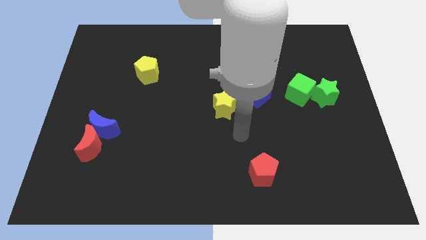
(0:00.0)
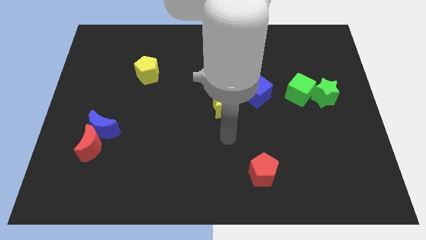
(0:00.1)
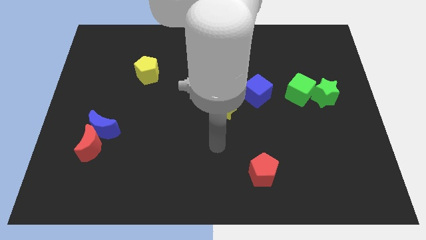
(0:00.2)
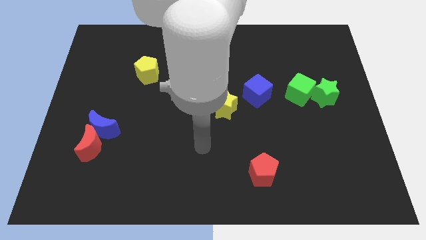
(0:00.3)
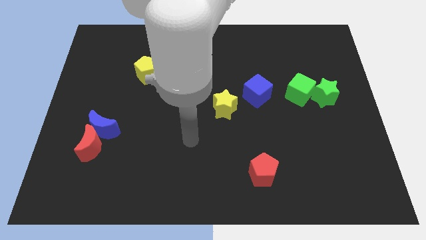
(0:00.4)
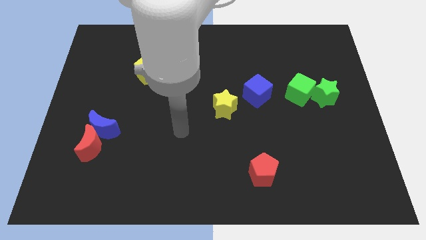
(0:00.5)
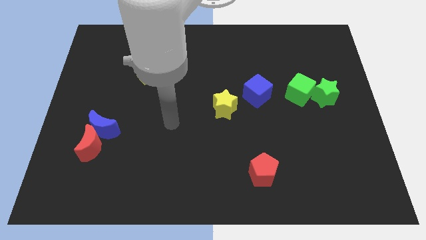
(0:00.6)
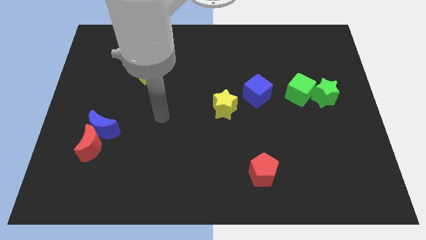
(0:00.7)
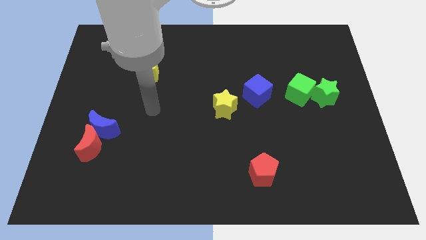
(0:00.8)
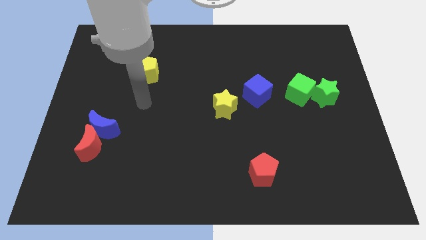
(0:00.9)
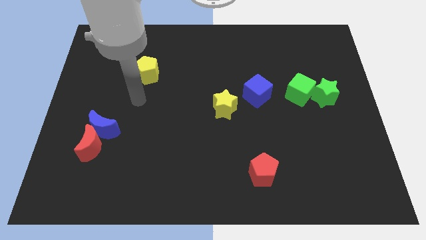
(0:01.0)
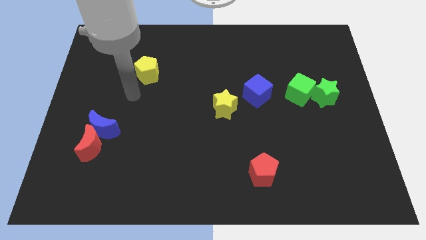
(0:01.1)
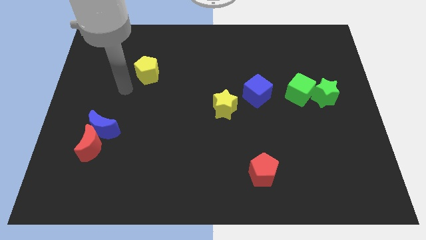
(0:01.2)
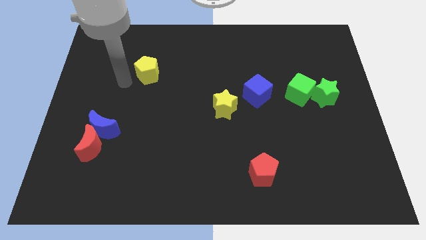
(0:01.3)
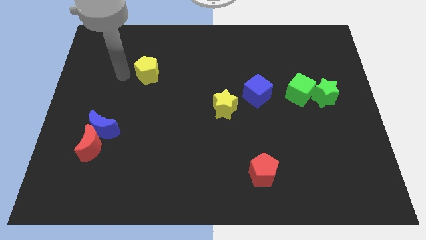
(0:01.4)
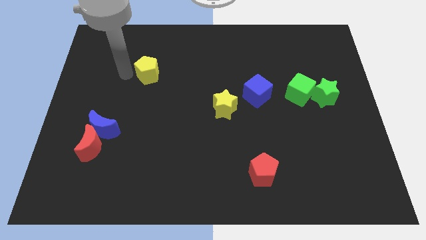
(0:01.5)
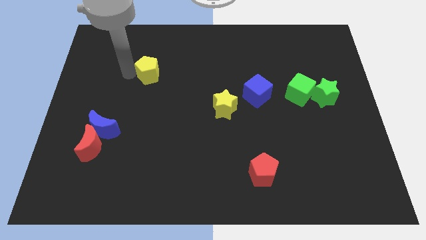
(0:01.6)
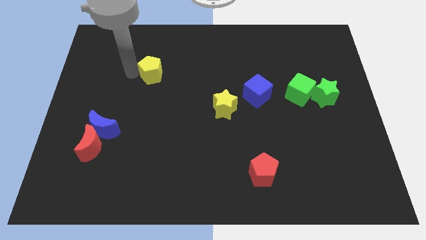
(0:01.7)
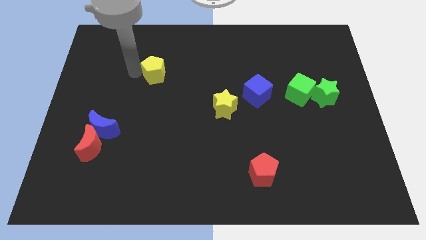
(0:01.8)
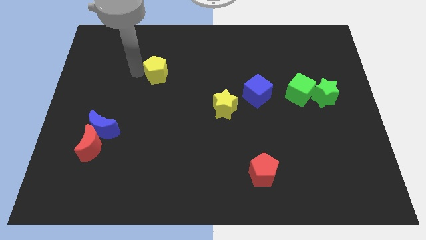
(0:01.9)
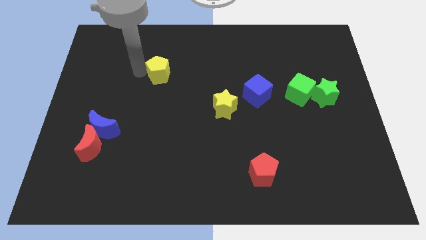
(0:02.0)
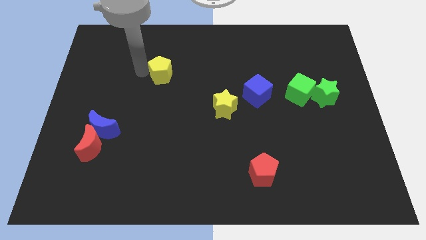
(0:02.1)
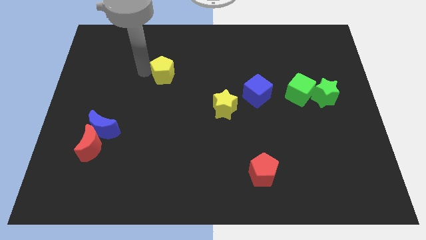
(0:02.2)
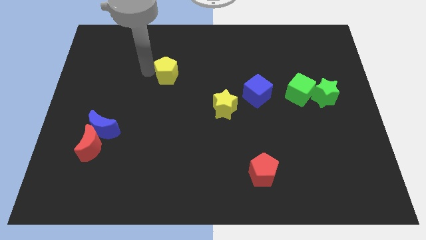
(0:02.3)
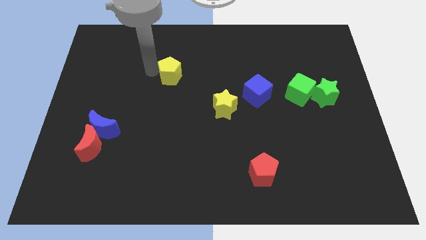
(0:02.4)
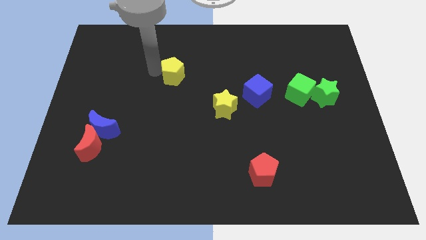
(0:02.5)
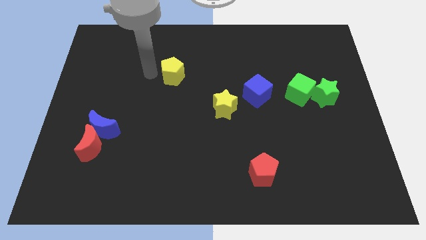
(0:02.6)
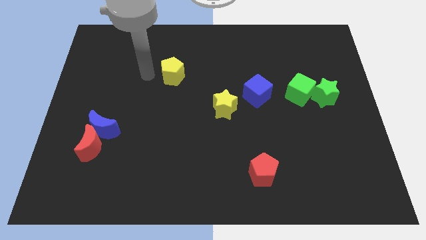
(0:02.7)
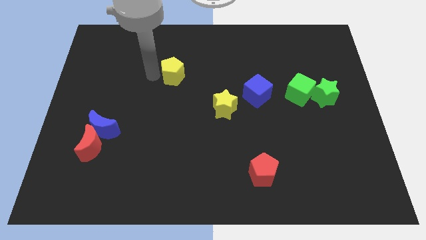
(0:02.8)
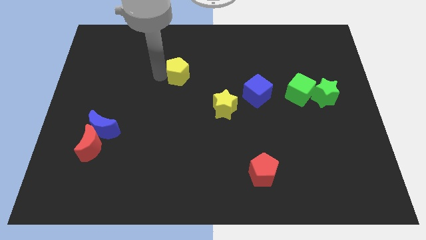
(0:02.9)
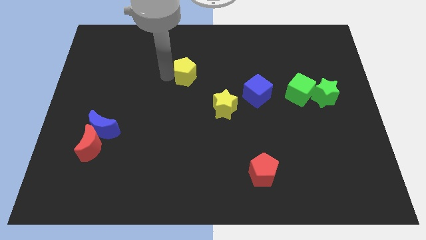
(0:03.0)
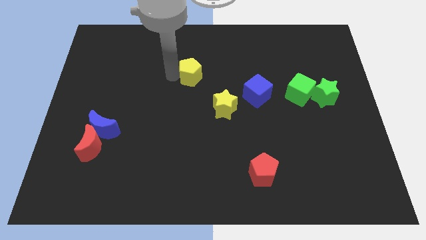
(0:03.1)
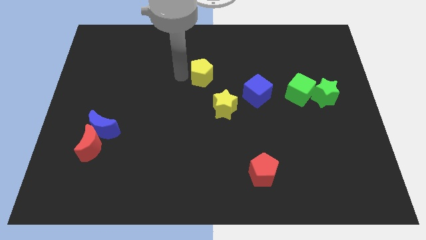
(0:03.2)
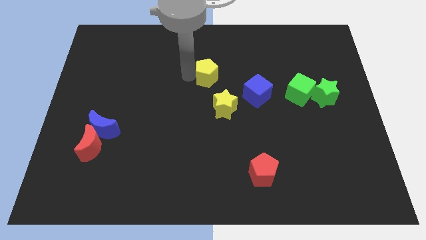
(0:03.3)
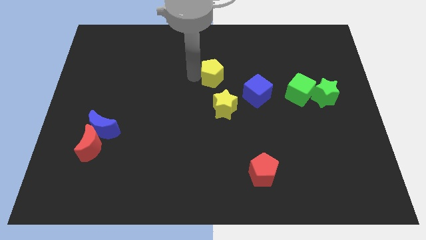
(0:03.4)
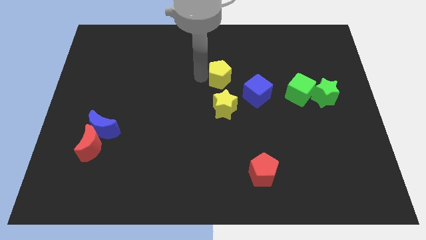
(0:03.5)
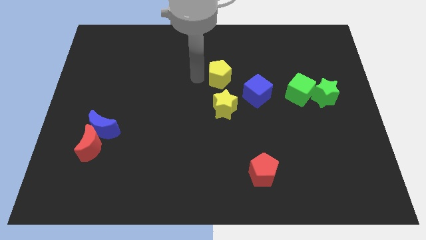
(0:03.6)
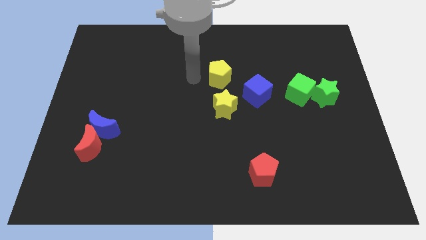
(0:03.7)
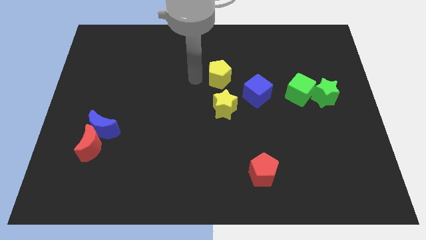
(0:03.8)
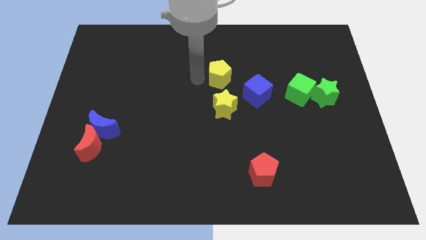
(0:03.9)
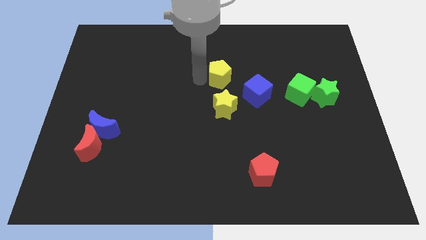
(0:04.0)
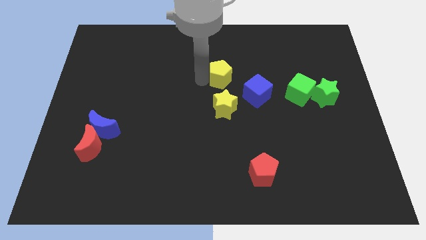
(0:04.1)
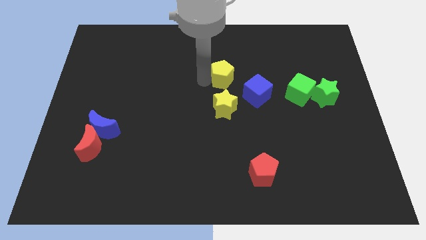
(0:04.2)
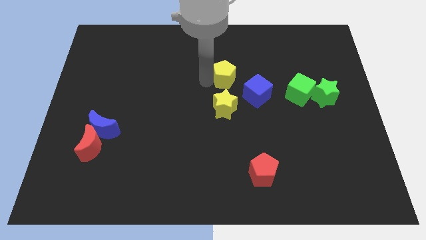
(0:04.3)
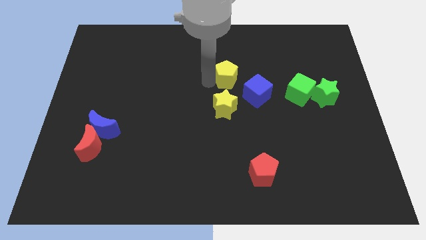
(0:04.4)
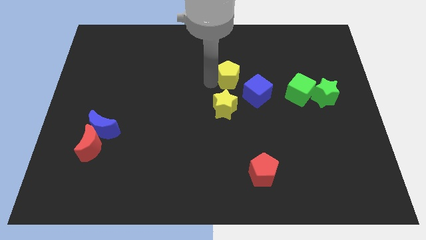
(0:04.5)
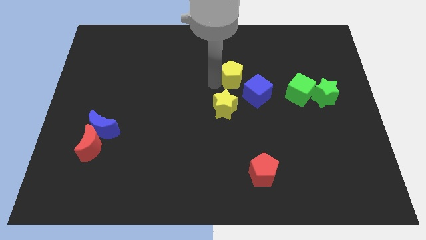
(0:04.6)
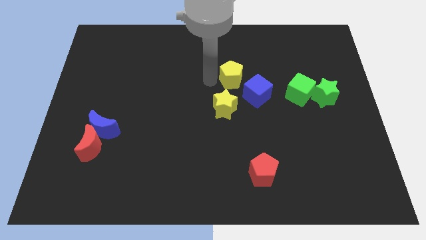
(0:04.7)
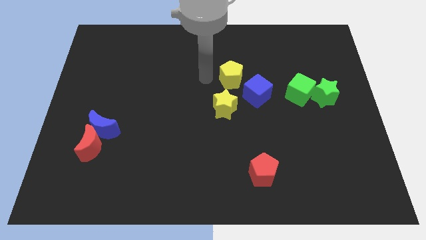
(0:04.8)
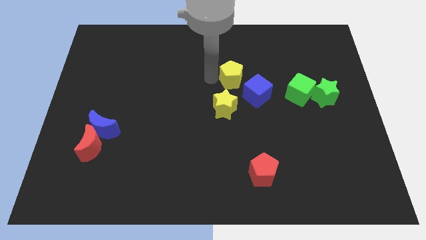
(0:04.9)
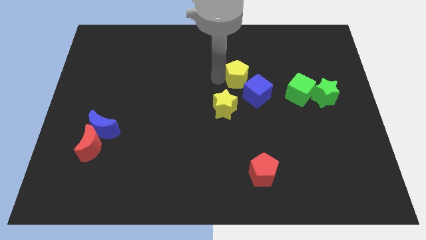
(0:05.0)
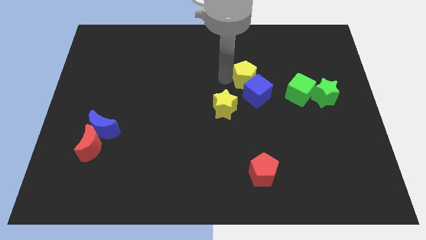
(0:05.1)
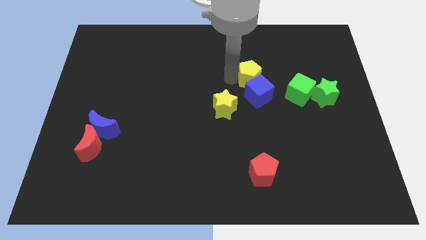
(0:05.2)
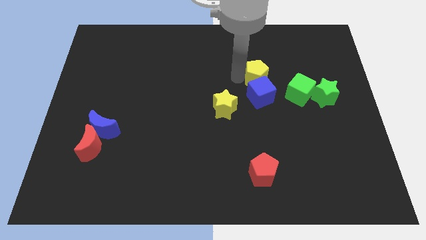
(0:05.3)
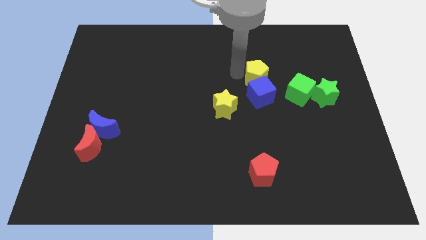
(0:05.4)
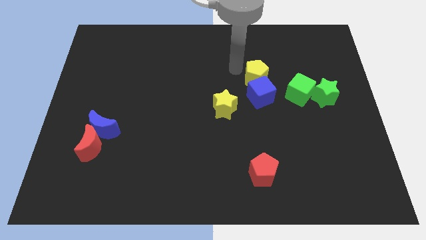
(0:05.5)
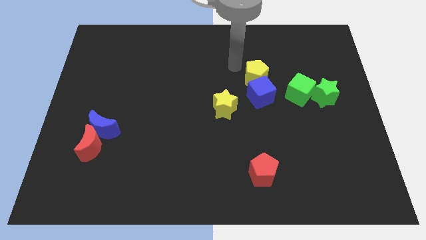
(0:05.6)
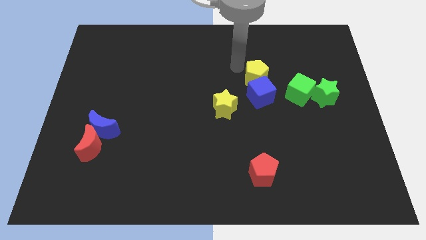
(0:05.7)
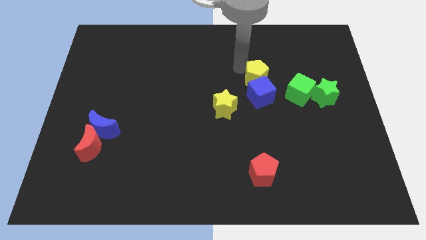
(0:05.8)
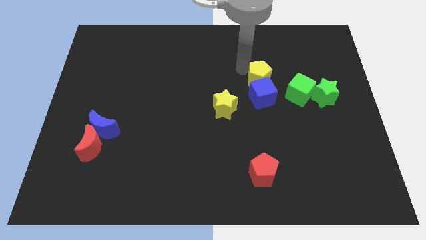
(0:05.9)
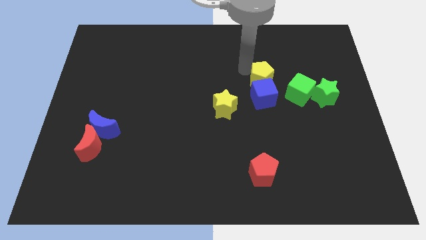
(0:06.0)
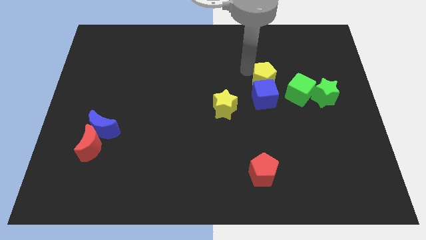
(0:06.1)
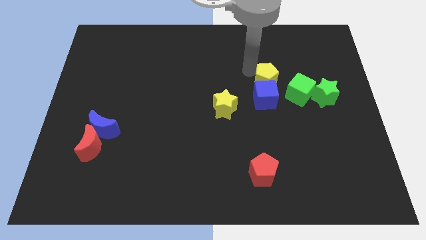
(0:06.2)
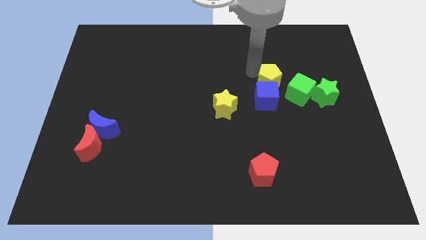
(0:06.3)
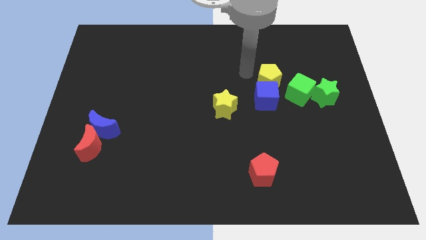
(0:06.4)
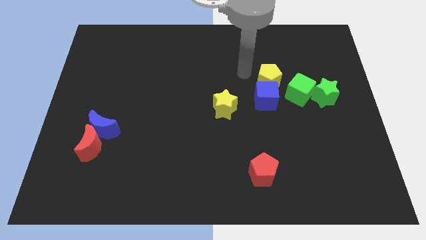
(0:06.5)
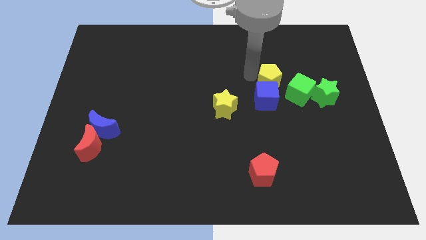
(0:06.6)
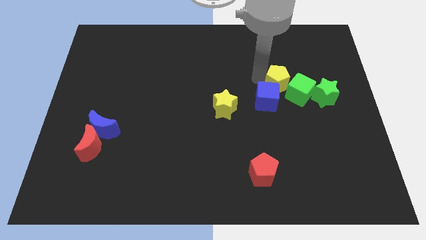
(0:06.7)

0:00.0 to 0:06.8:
put the yellow pentagon towards the green cube
